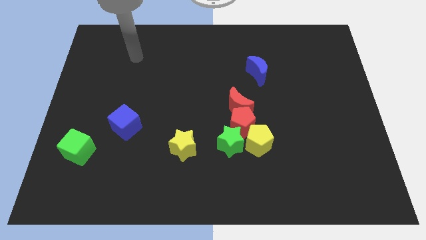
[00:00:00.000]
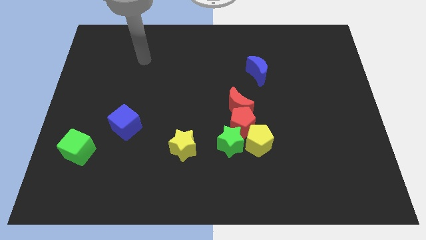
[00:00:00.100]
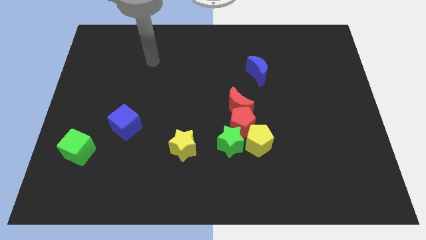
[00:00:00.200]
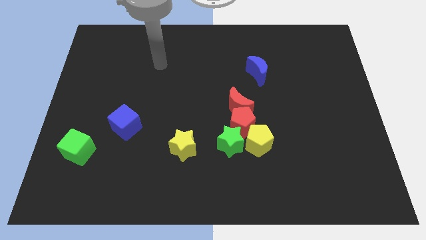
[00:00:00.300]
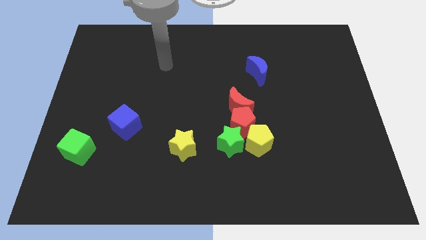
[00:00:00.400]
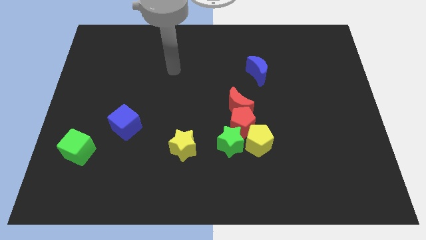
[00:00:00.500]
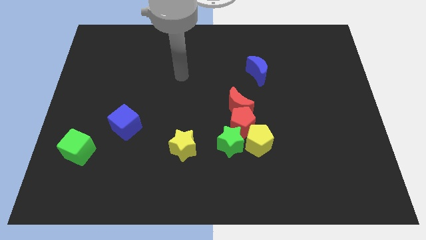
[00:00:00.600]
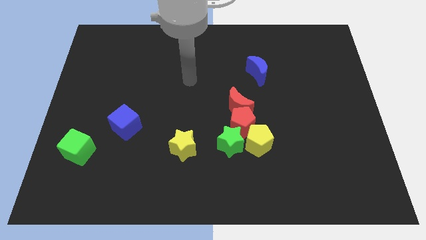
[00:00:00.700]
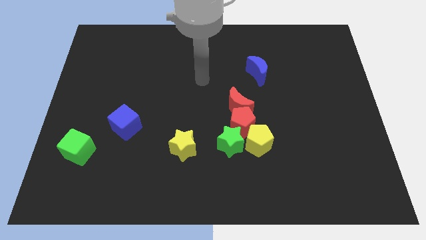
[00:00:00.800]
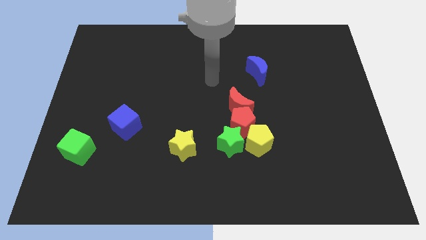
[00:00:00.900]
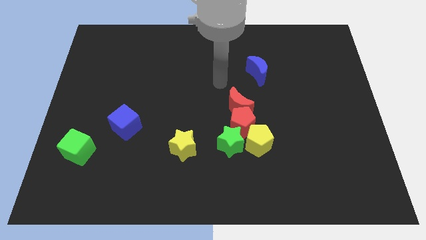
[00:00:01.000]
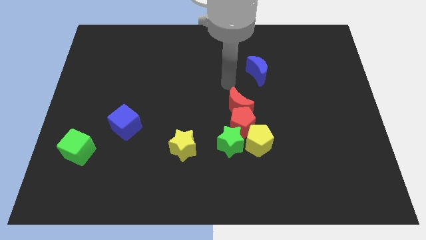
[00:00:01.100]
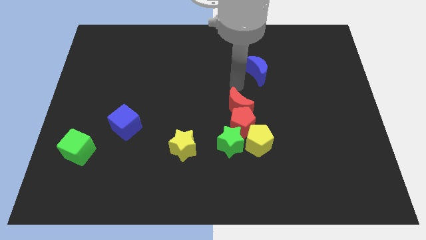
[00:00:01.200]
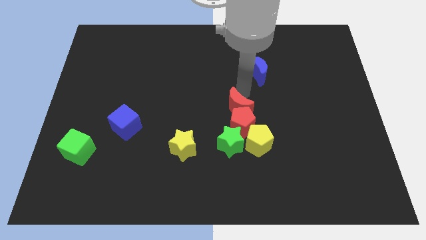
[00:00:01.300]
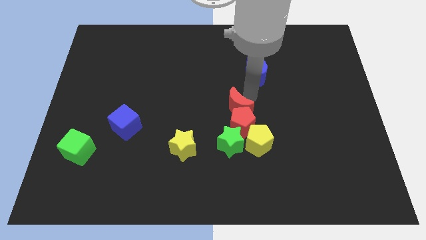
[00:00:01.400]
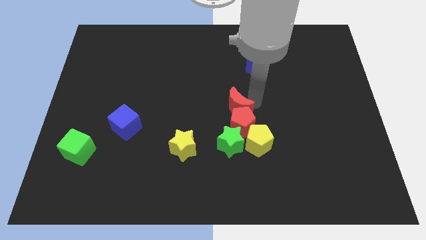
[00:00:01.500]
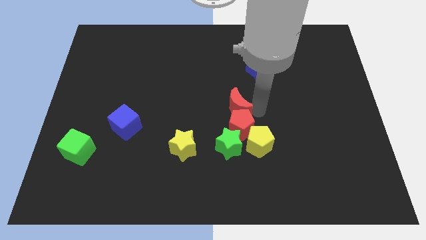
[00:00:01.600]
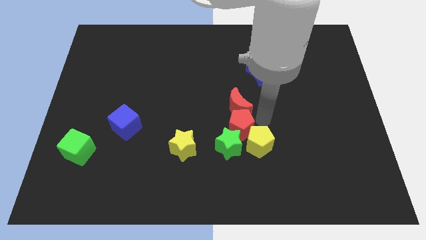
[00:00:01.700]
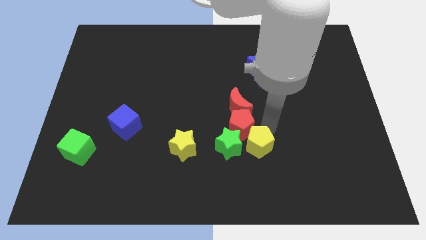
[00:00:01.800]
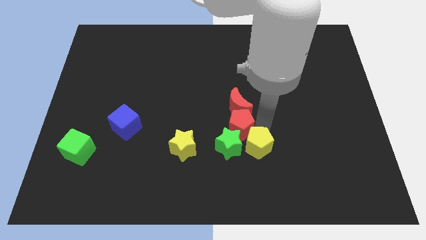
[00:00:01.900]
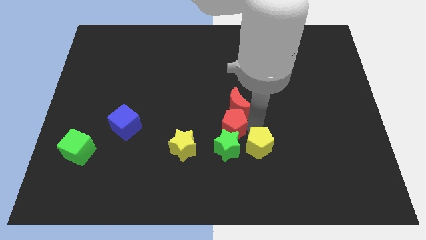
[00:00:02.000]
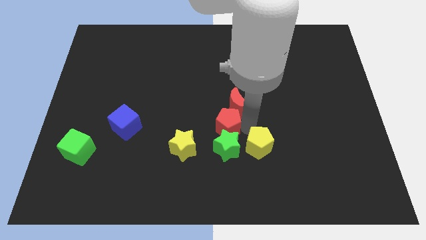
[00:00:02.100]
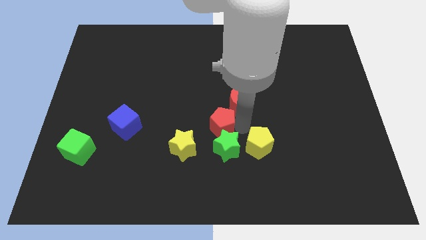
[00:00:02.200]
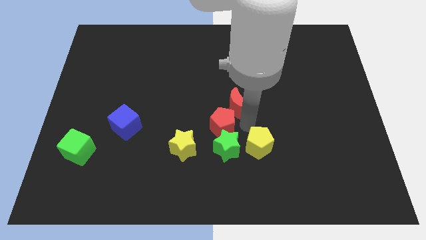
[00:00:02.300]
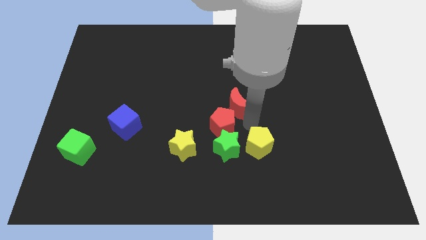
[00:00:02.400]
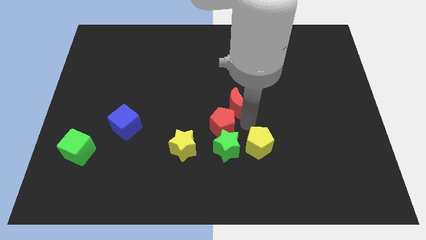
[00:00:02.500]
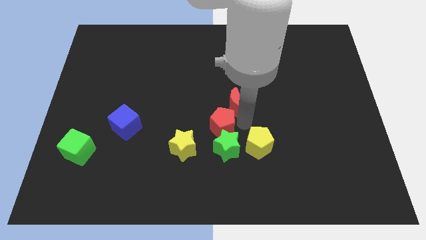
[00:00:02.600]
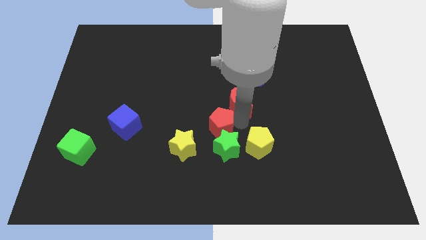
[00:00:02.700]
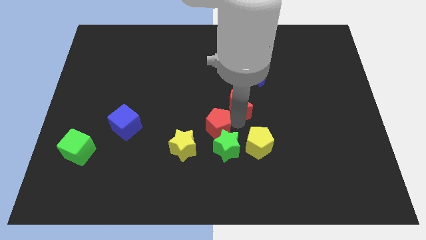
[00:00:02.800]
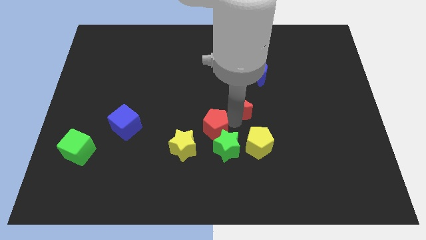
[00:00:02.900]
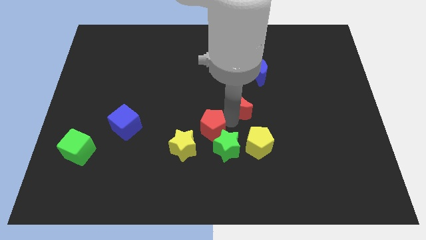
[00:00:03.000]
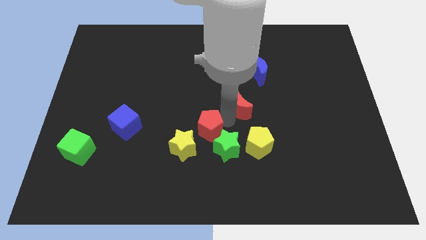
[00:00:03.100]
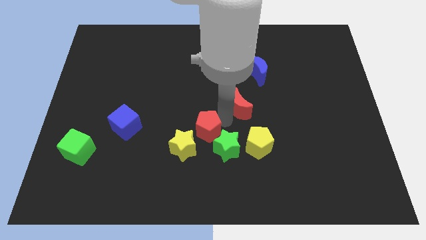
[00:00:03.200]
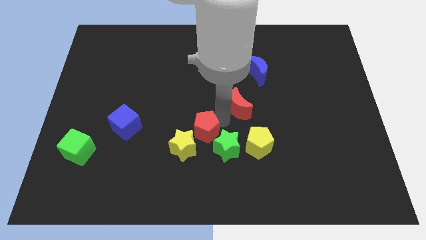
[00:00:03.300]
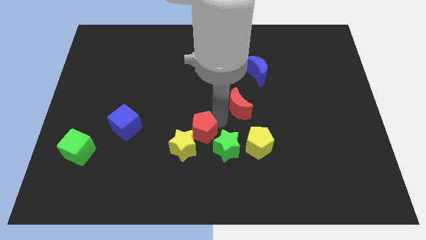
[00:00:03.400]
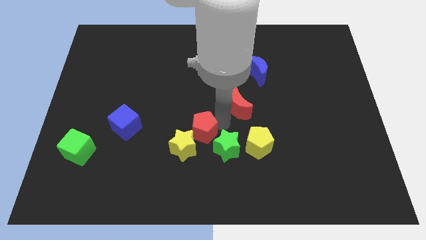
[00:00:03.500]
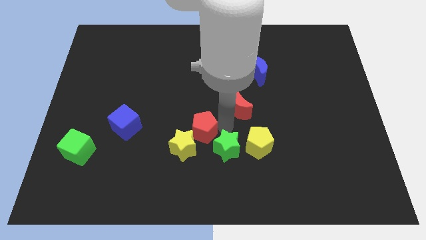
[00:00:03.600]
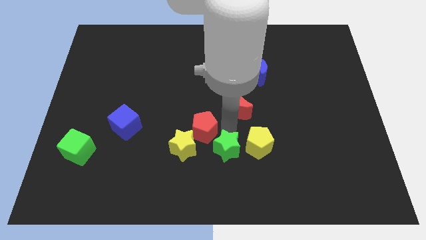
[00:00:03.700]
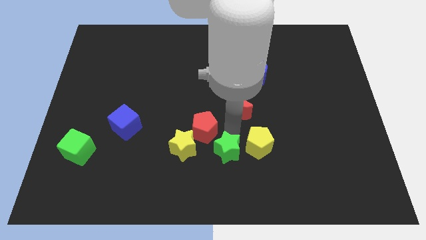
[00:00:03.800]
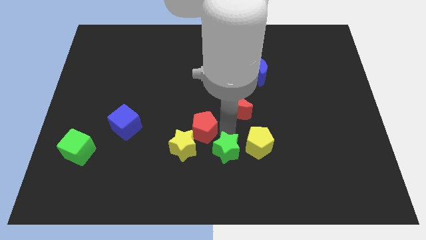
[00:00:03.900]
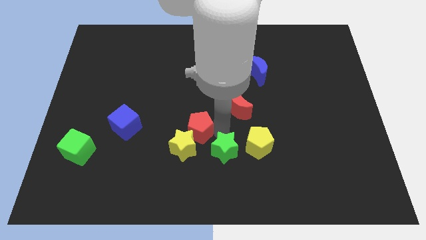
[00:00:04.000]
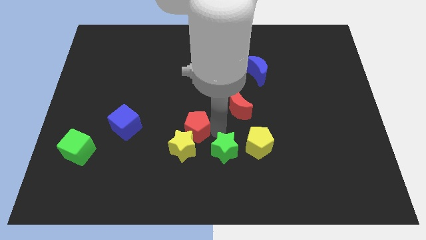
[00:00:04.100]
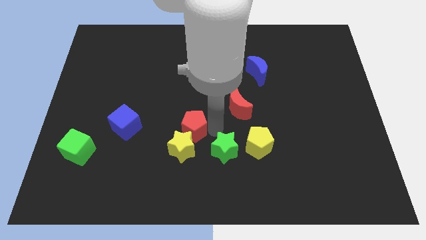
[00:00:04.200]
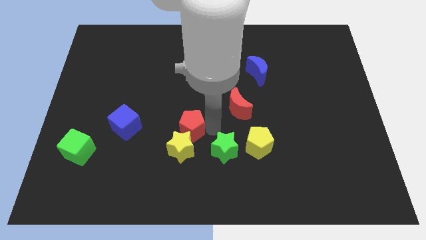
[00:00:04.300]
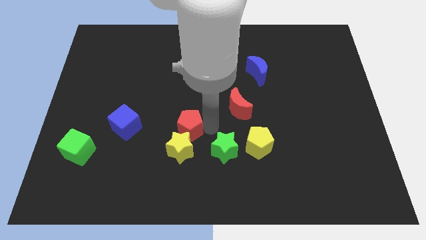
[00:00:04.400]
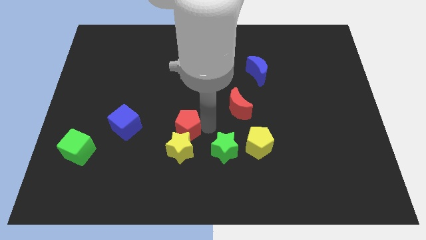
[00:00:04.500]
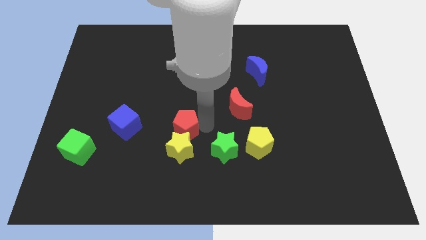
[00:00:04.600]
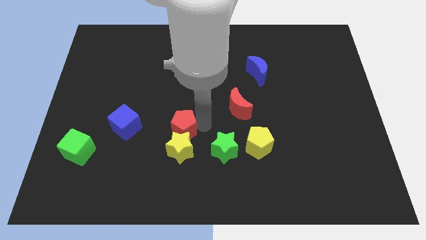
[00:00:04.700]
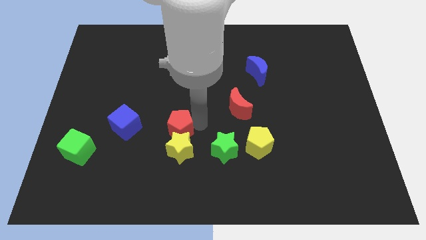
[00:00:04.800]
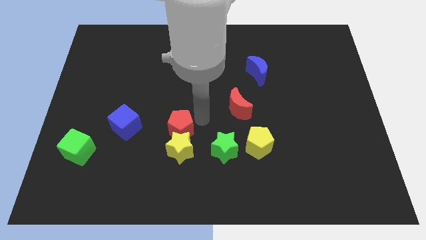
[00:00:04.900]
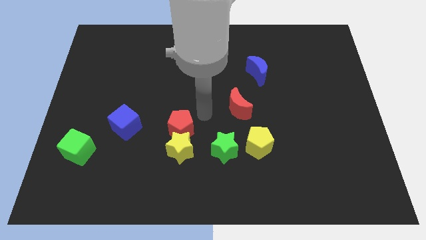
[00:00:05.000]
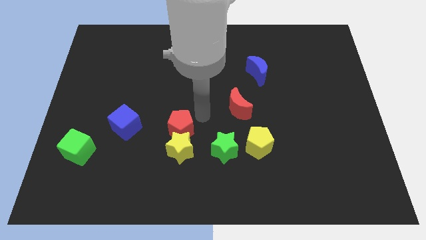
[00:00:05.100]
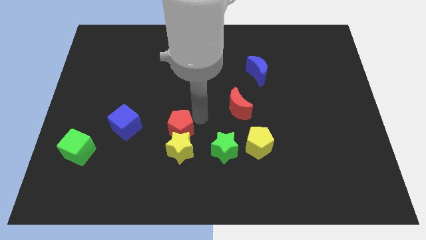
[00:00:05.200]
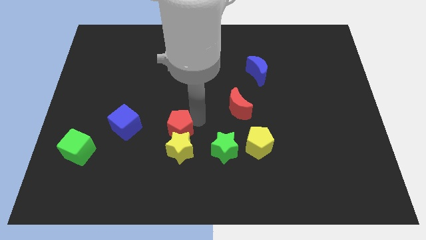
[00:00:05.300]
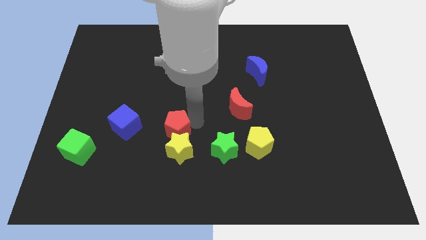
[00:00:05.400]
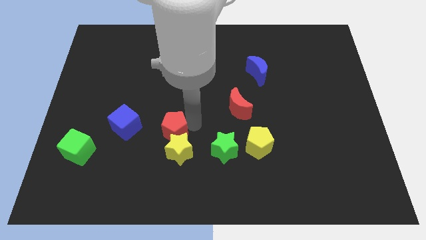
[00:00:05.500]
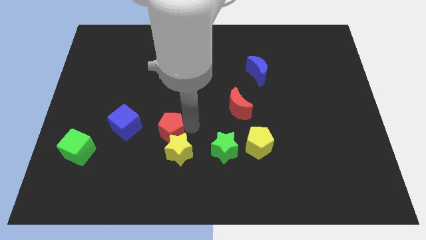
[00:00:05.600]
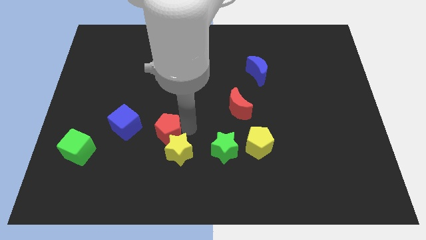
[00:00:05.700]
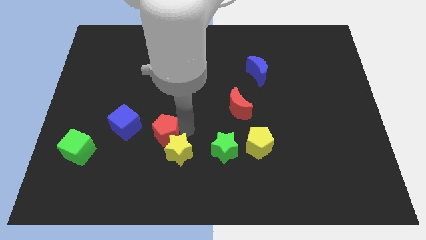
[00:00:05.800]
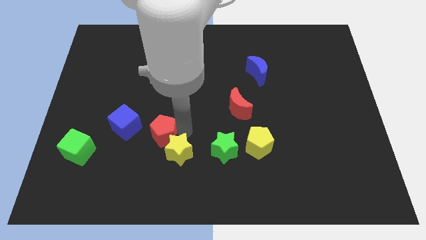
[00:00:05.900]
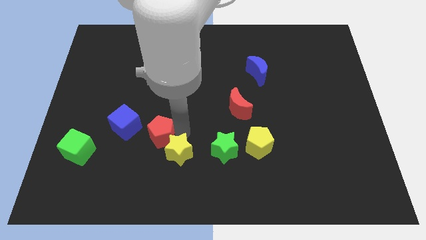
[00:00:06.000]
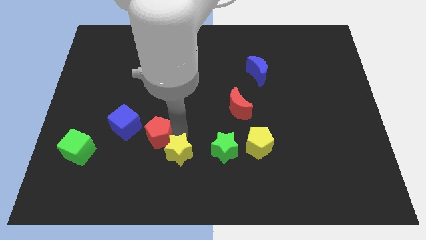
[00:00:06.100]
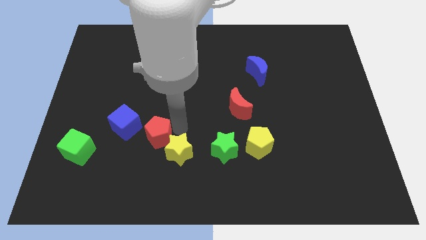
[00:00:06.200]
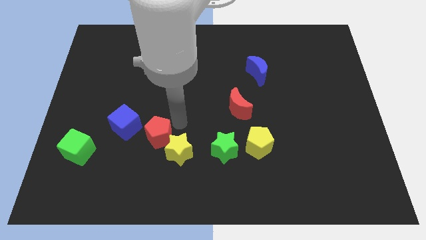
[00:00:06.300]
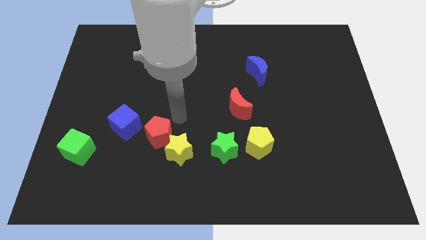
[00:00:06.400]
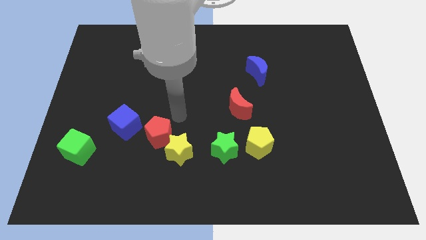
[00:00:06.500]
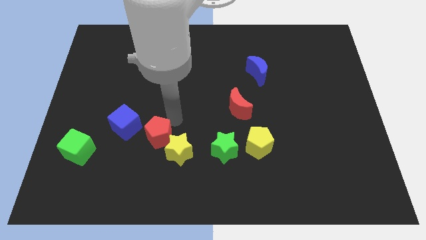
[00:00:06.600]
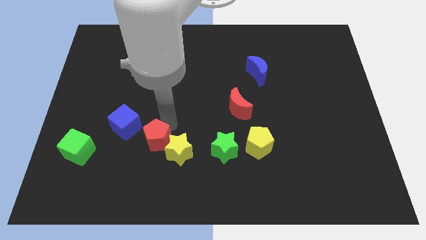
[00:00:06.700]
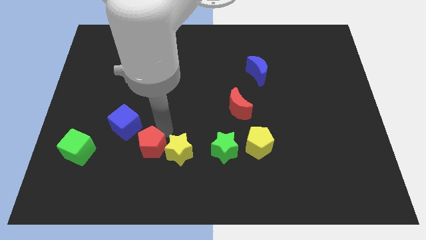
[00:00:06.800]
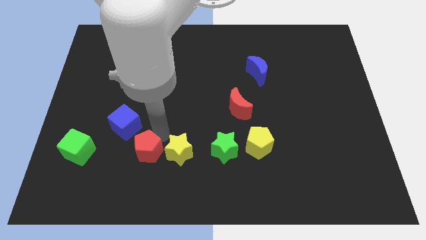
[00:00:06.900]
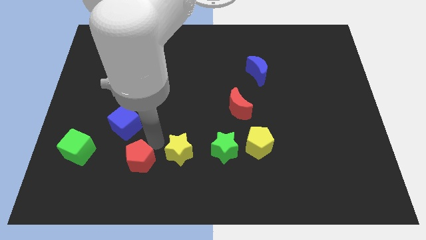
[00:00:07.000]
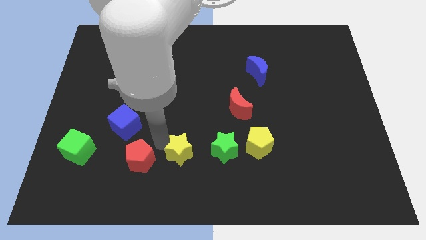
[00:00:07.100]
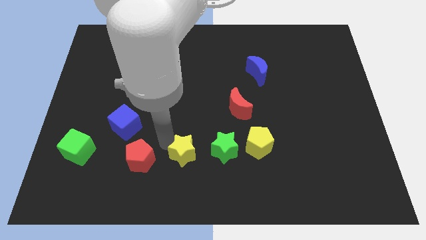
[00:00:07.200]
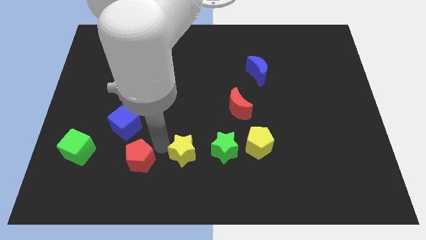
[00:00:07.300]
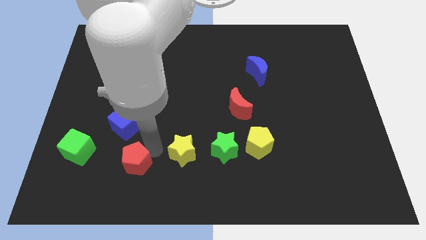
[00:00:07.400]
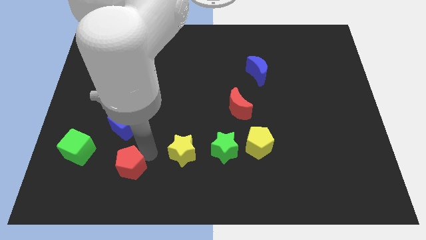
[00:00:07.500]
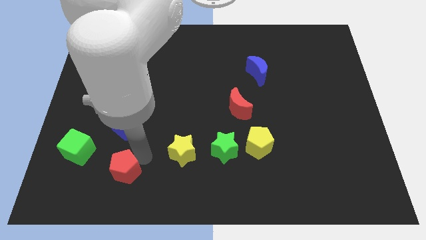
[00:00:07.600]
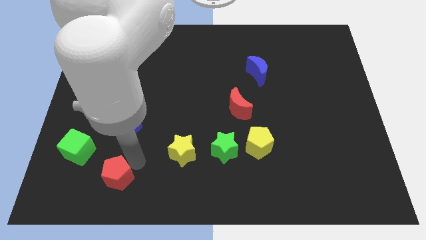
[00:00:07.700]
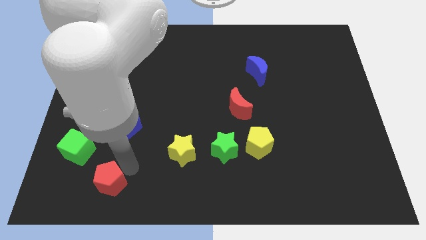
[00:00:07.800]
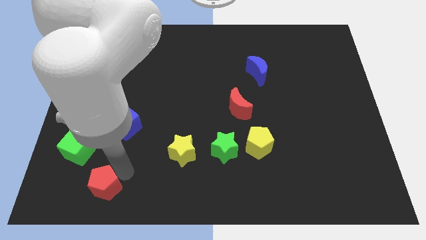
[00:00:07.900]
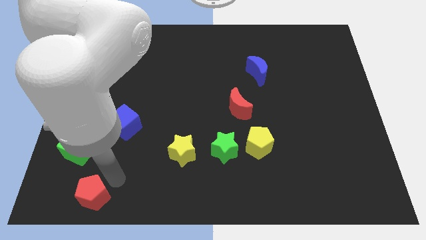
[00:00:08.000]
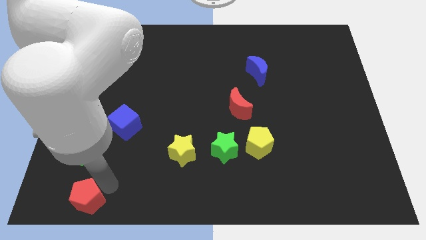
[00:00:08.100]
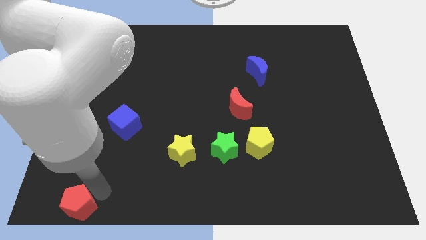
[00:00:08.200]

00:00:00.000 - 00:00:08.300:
put the red pentagon to the bottom left
